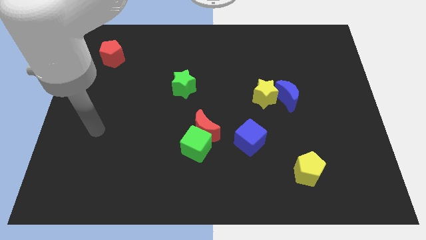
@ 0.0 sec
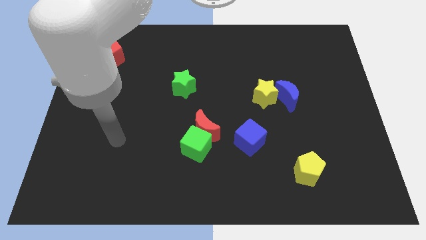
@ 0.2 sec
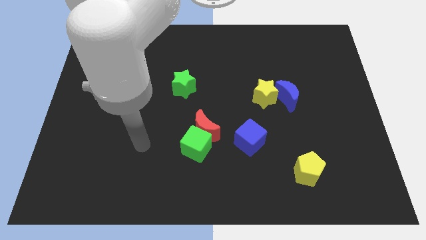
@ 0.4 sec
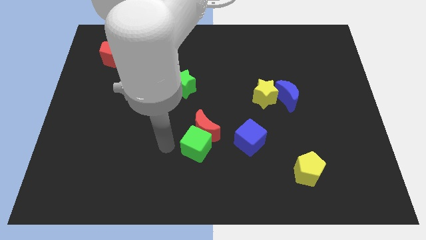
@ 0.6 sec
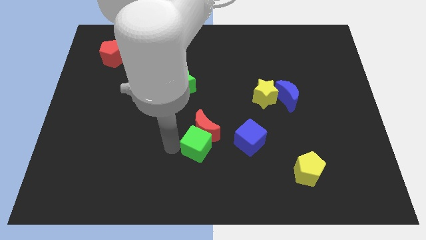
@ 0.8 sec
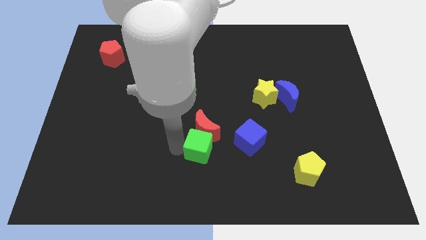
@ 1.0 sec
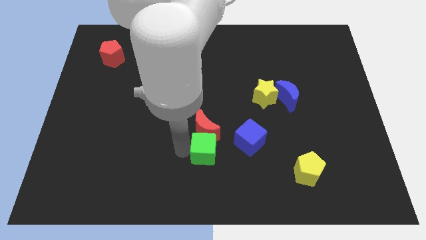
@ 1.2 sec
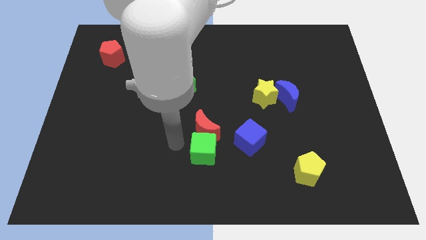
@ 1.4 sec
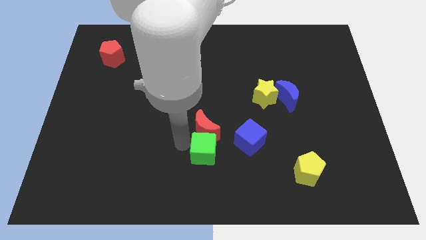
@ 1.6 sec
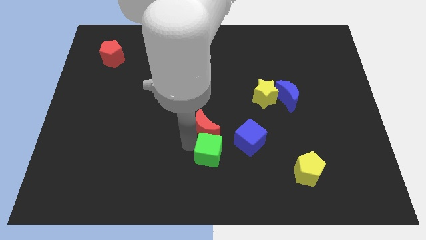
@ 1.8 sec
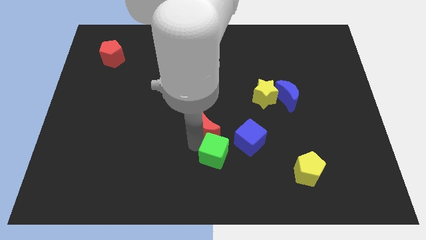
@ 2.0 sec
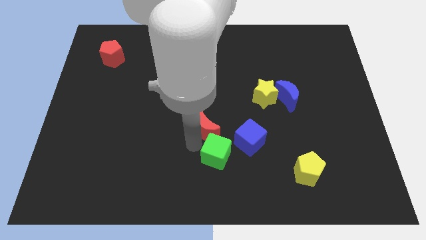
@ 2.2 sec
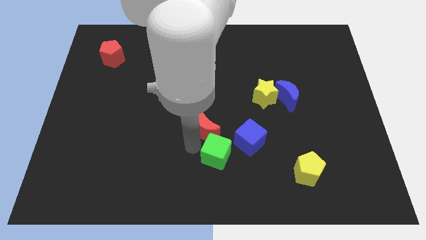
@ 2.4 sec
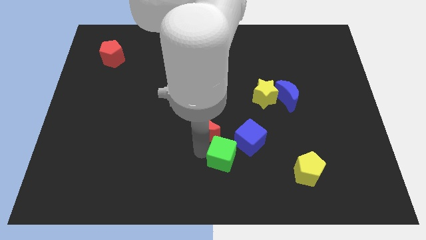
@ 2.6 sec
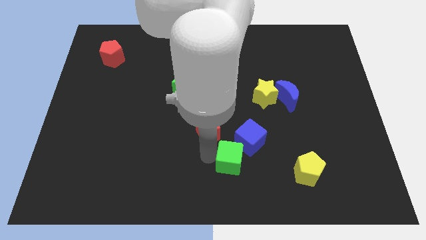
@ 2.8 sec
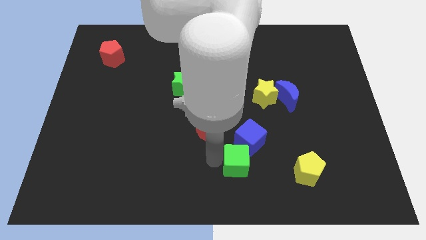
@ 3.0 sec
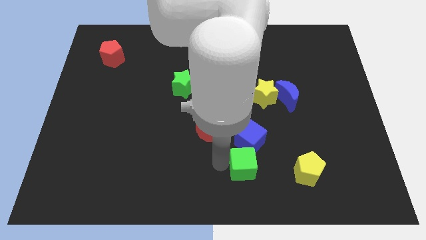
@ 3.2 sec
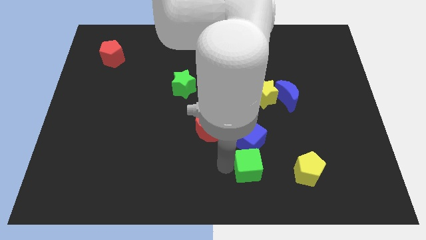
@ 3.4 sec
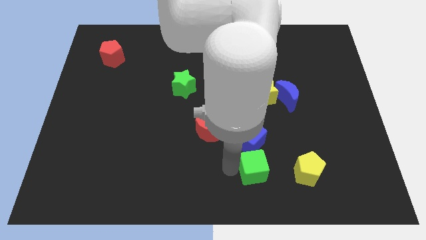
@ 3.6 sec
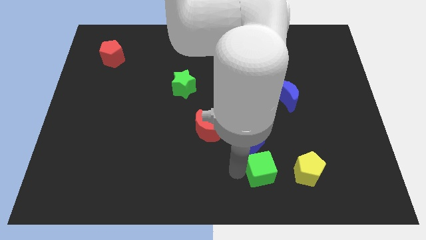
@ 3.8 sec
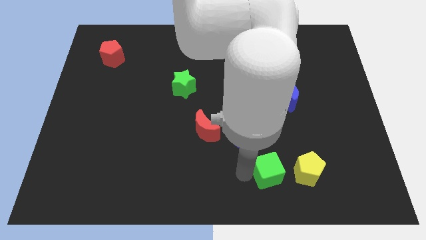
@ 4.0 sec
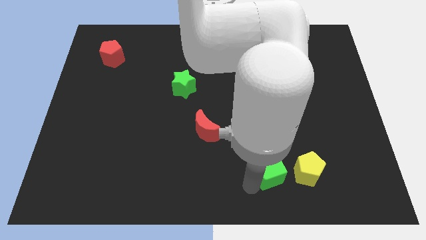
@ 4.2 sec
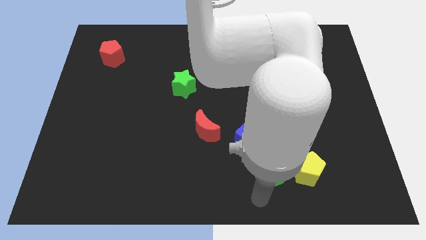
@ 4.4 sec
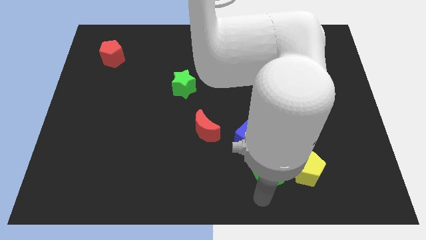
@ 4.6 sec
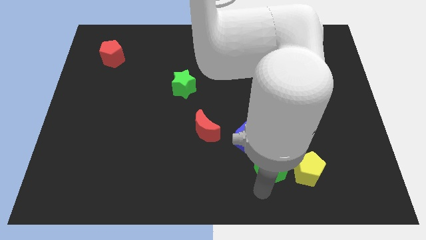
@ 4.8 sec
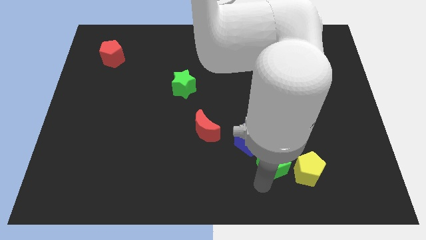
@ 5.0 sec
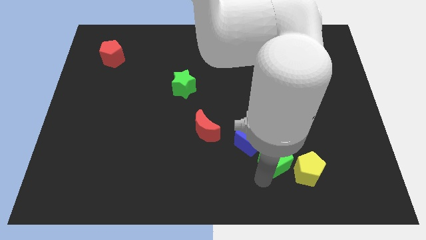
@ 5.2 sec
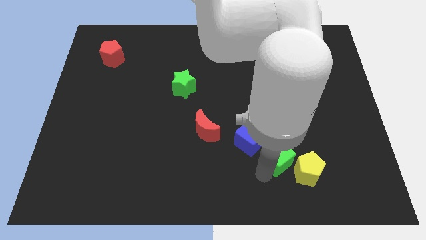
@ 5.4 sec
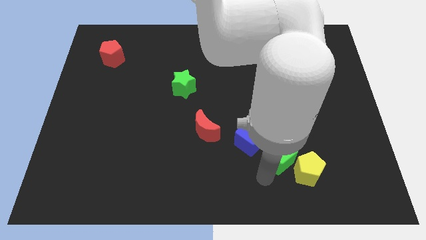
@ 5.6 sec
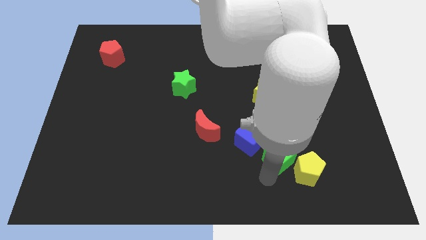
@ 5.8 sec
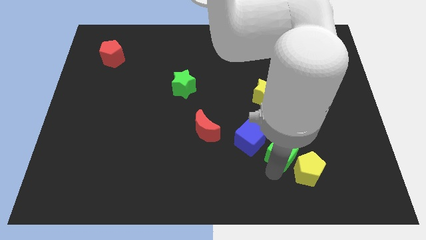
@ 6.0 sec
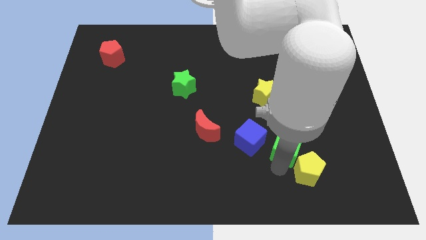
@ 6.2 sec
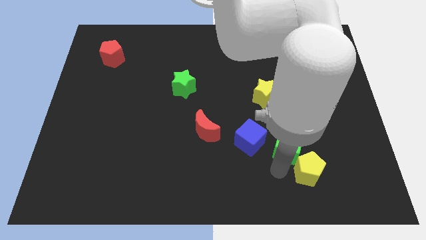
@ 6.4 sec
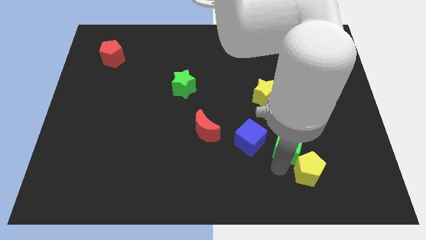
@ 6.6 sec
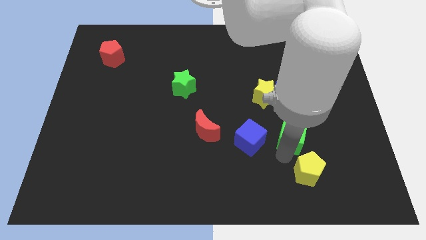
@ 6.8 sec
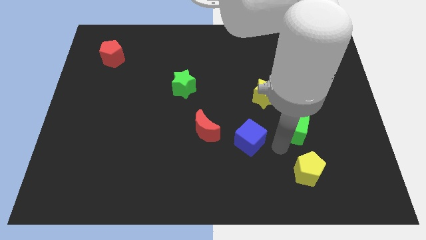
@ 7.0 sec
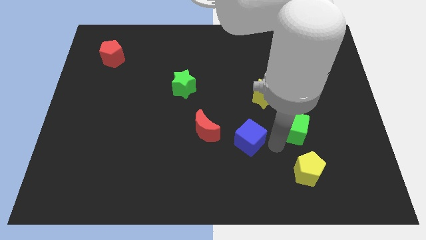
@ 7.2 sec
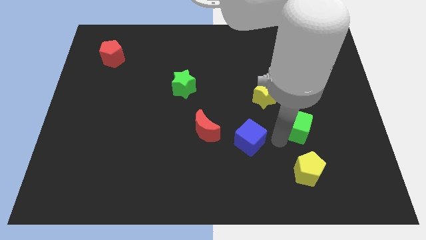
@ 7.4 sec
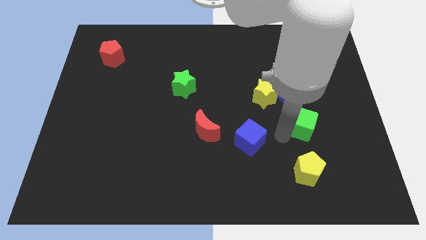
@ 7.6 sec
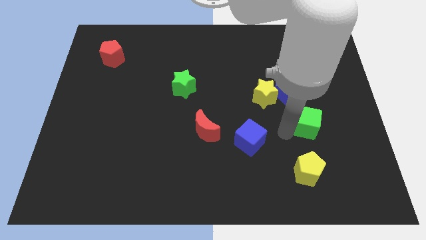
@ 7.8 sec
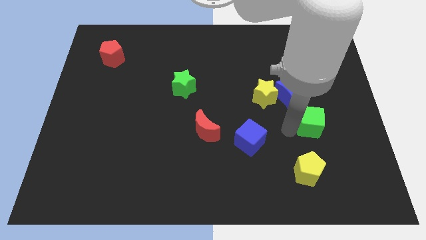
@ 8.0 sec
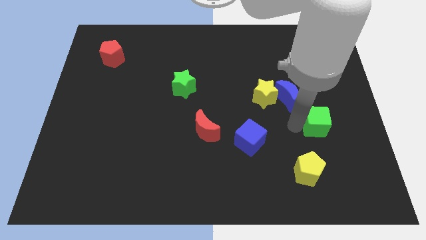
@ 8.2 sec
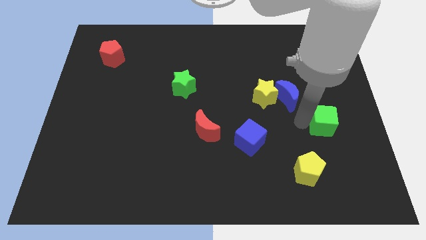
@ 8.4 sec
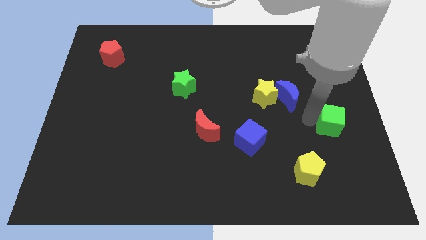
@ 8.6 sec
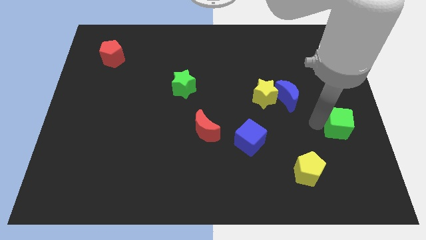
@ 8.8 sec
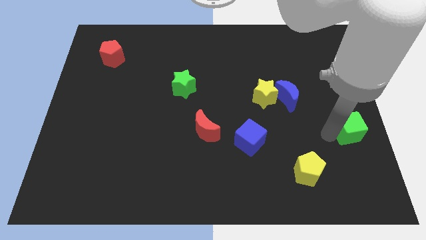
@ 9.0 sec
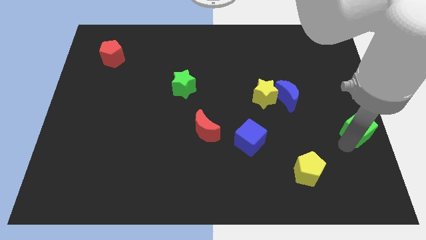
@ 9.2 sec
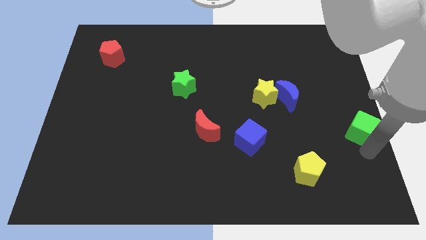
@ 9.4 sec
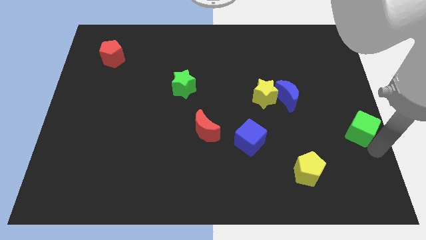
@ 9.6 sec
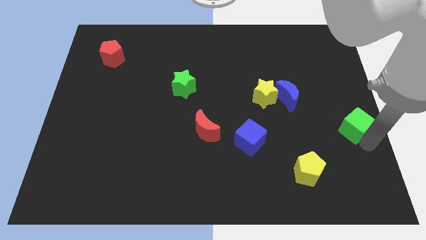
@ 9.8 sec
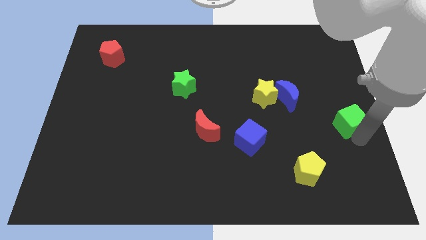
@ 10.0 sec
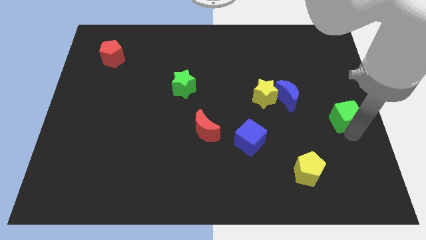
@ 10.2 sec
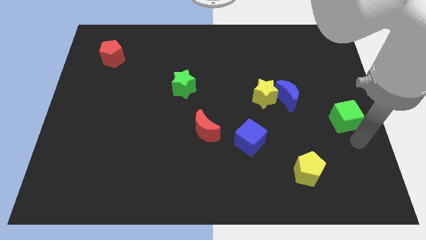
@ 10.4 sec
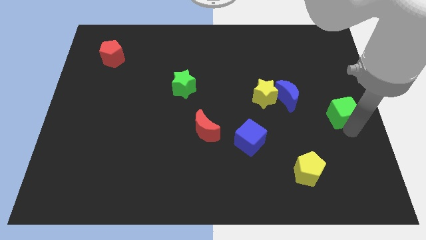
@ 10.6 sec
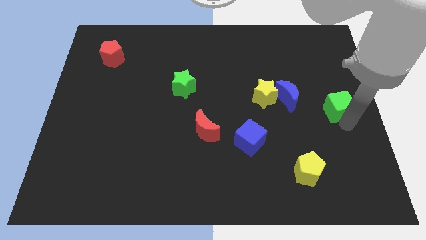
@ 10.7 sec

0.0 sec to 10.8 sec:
put the green cube just right of the blue moon

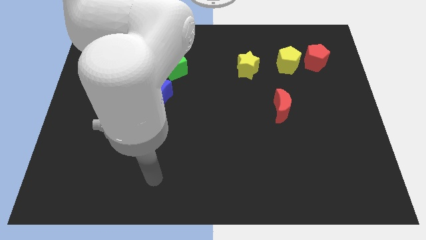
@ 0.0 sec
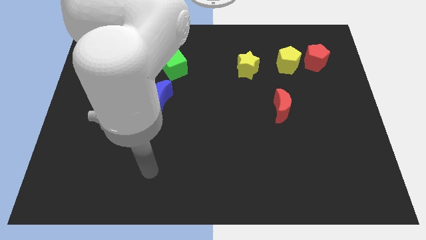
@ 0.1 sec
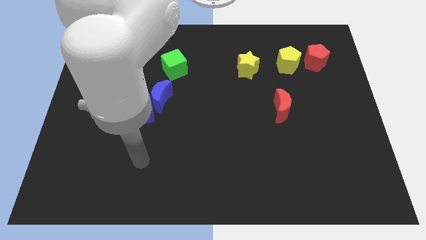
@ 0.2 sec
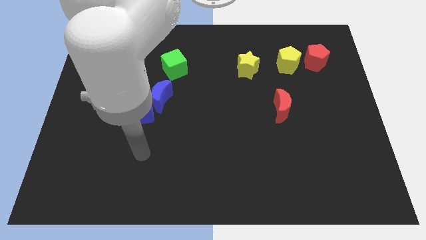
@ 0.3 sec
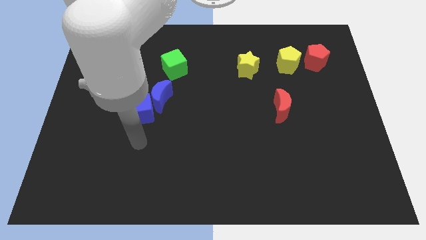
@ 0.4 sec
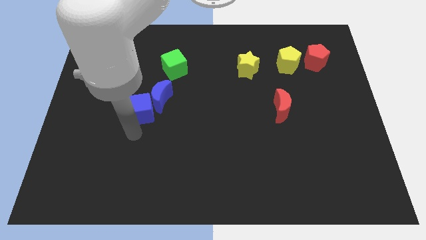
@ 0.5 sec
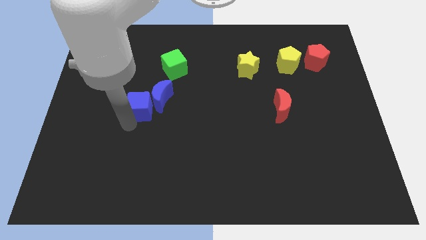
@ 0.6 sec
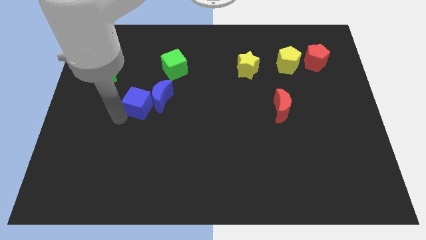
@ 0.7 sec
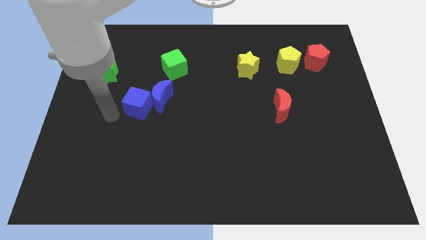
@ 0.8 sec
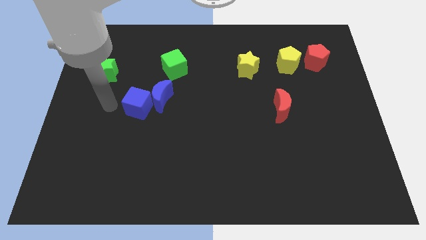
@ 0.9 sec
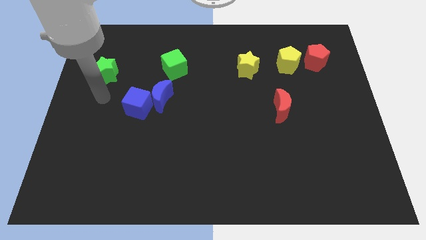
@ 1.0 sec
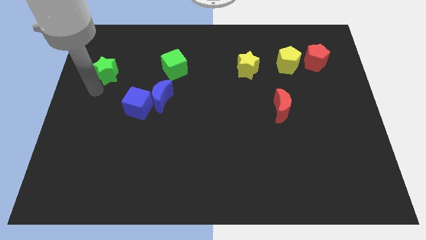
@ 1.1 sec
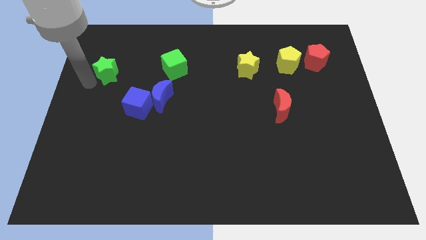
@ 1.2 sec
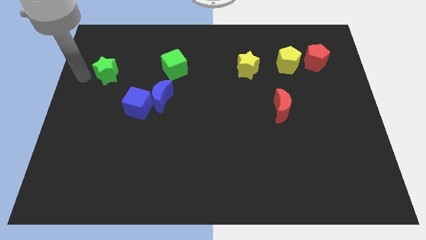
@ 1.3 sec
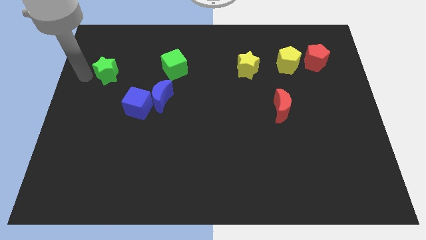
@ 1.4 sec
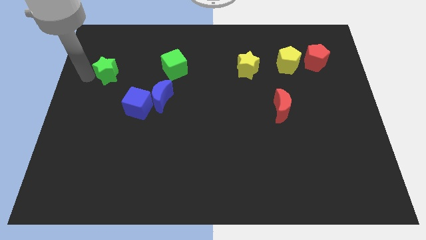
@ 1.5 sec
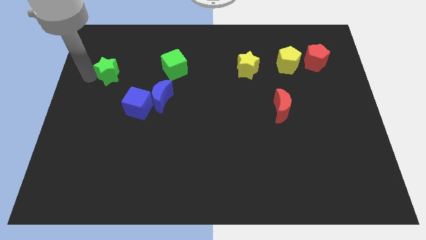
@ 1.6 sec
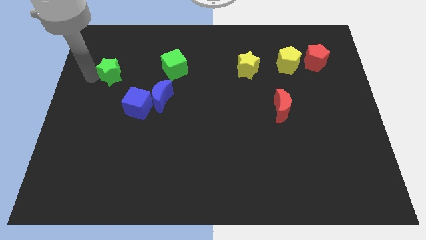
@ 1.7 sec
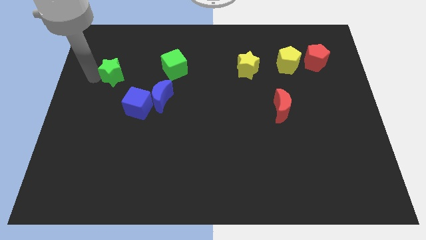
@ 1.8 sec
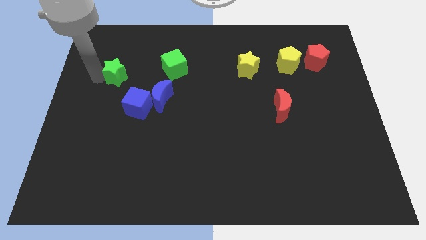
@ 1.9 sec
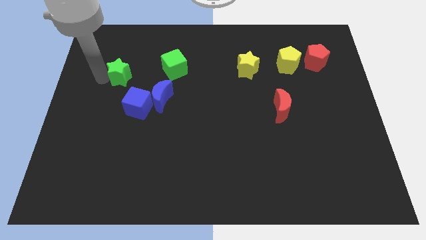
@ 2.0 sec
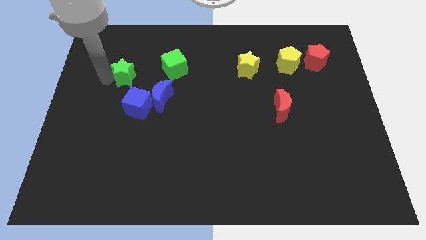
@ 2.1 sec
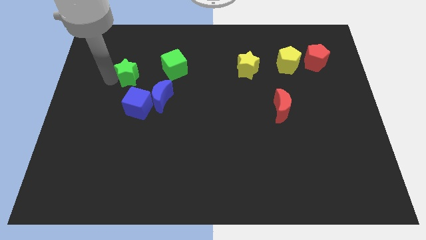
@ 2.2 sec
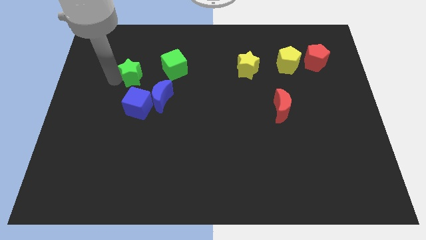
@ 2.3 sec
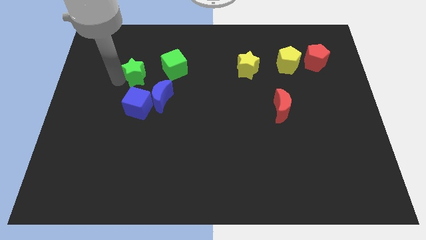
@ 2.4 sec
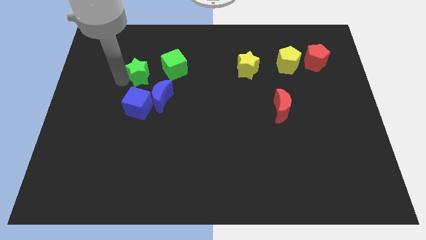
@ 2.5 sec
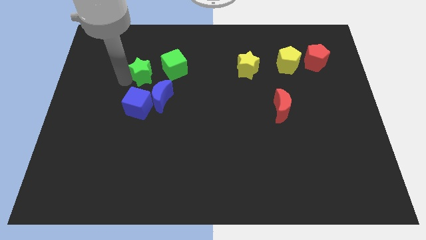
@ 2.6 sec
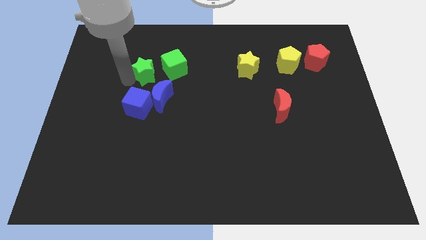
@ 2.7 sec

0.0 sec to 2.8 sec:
push the green star to the top side of the blue moon
